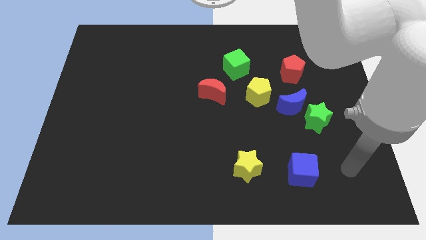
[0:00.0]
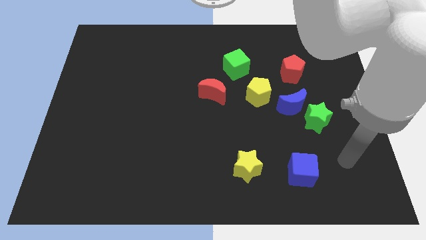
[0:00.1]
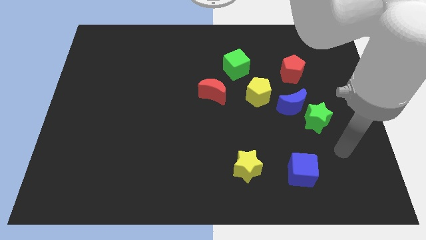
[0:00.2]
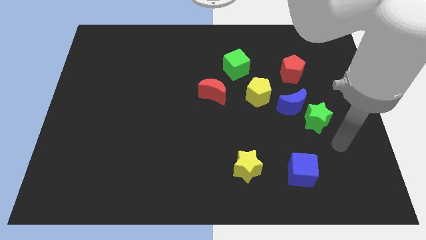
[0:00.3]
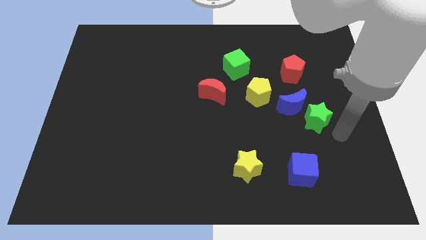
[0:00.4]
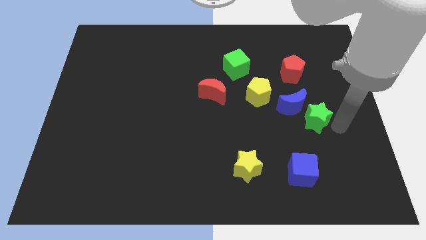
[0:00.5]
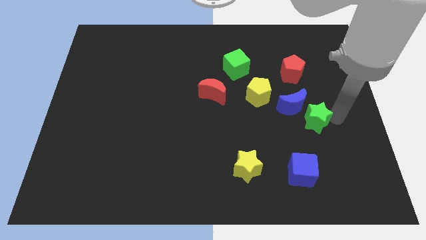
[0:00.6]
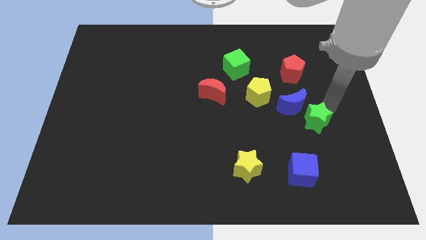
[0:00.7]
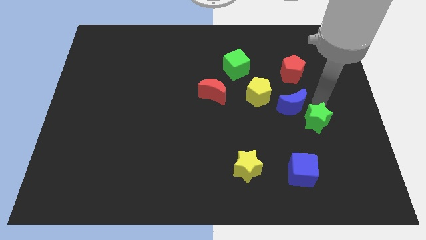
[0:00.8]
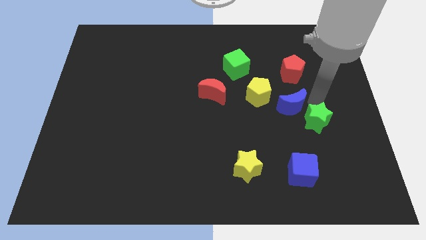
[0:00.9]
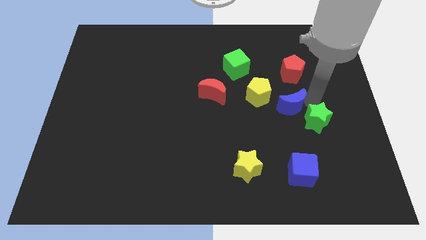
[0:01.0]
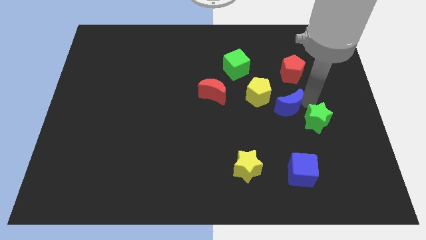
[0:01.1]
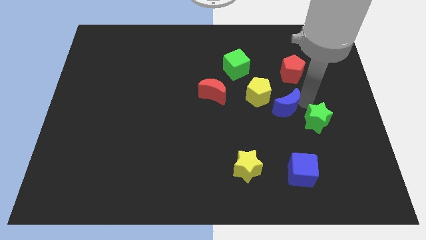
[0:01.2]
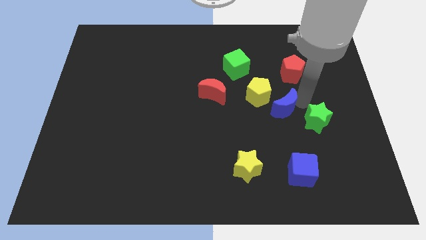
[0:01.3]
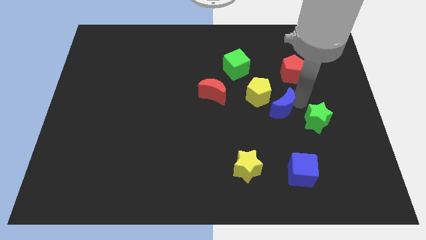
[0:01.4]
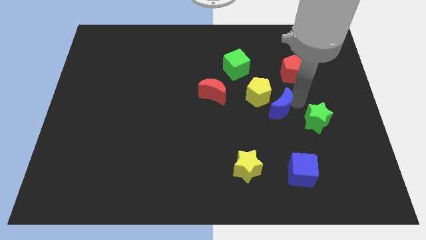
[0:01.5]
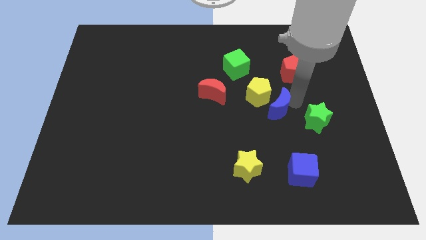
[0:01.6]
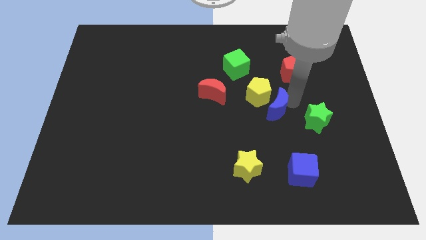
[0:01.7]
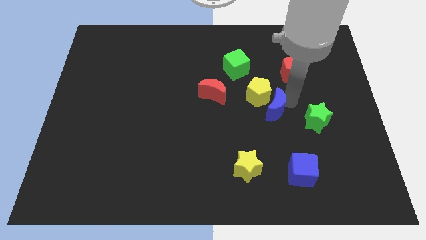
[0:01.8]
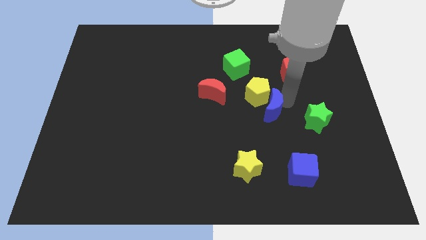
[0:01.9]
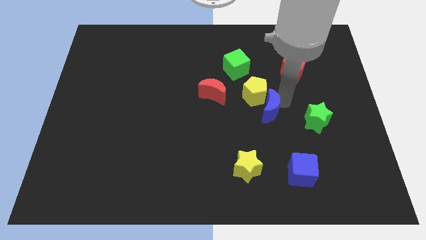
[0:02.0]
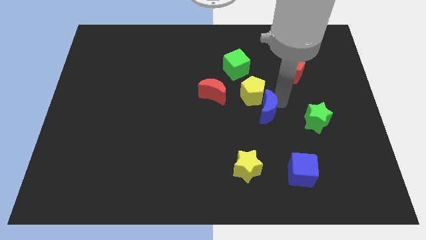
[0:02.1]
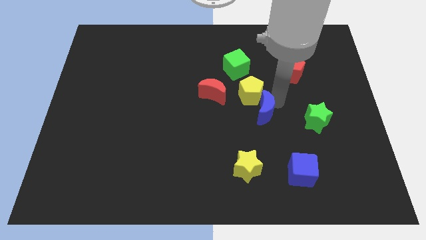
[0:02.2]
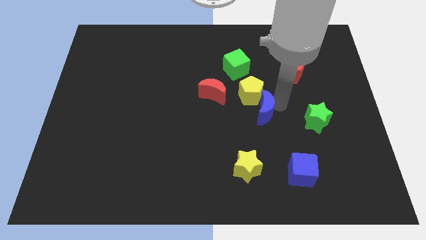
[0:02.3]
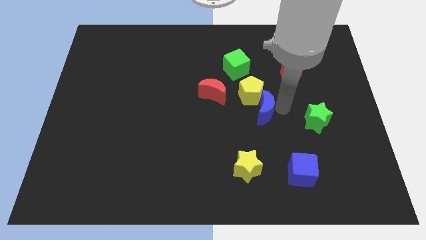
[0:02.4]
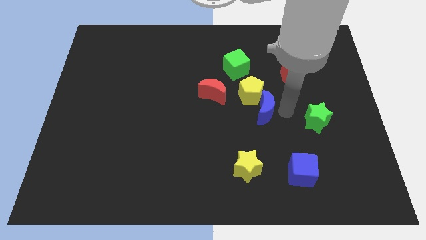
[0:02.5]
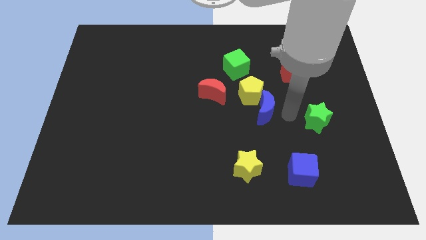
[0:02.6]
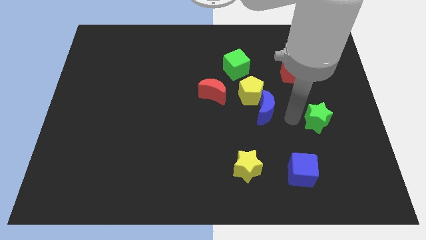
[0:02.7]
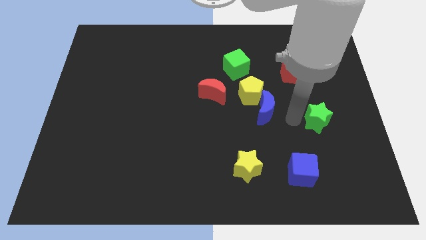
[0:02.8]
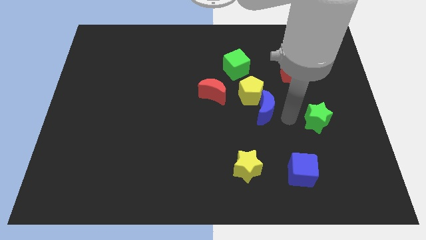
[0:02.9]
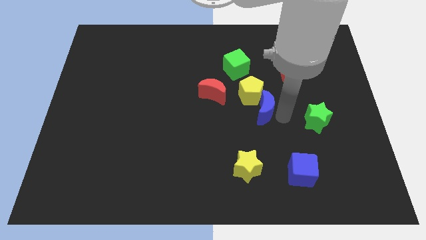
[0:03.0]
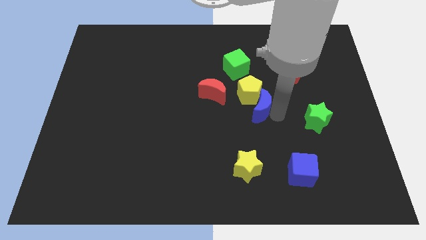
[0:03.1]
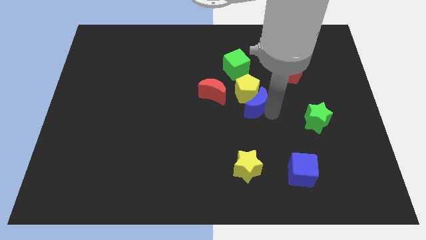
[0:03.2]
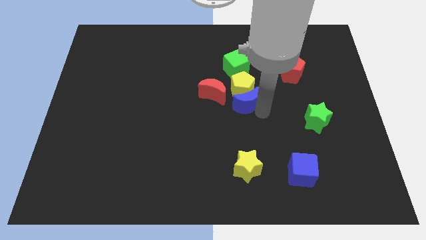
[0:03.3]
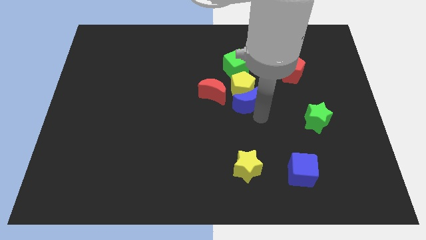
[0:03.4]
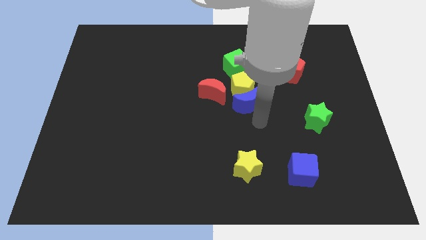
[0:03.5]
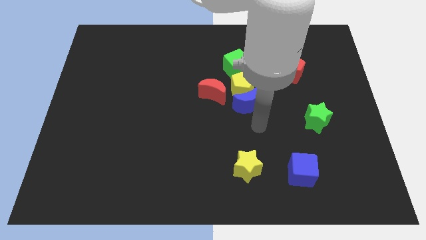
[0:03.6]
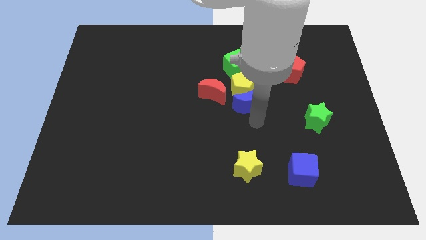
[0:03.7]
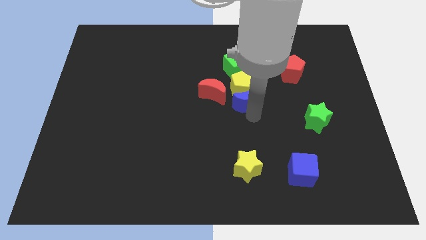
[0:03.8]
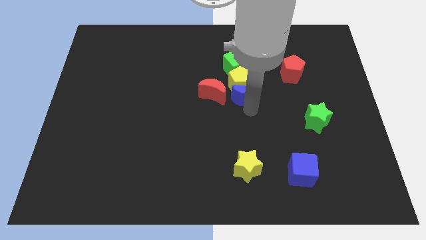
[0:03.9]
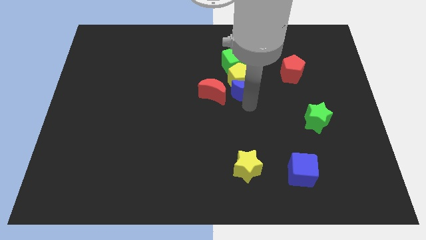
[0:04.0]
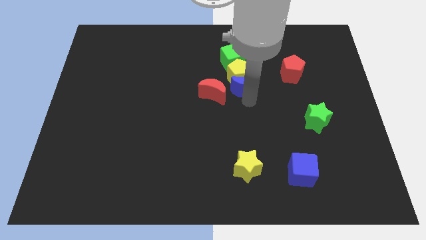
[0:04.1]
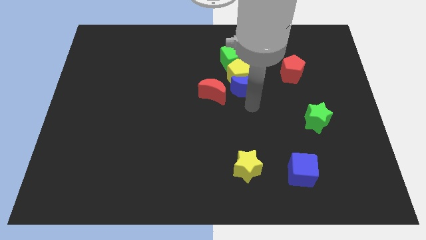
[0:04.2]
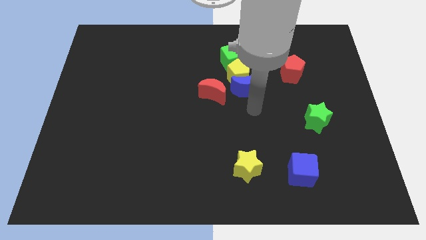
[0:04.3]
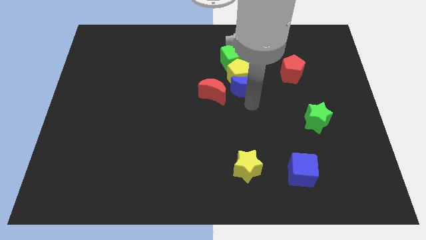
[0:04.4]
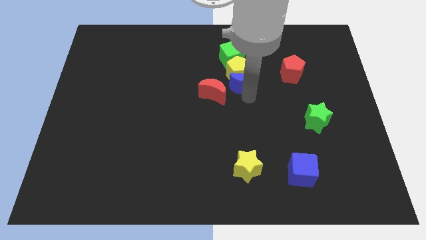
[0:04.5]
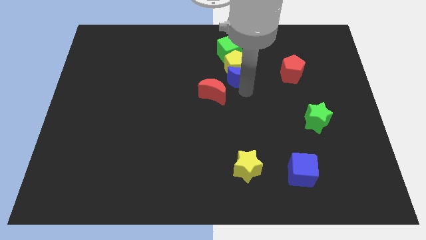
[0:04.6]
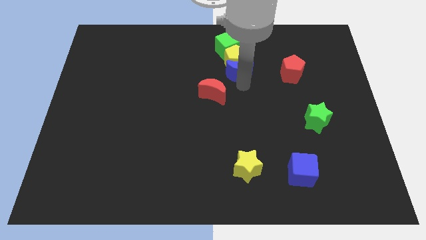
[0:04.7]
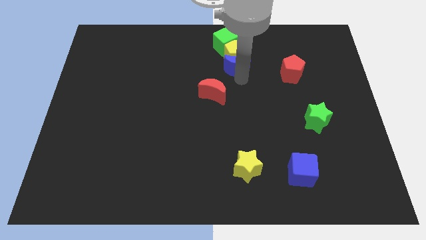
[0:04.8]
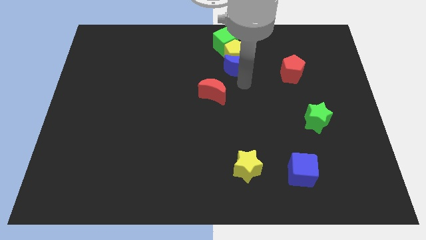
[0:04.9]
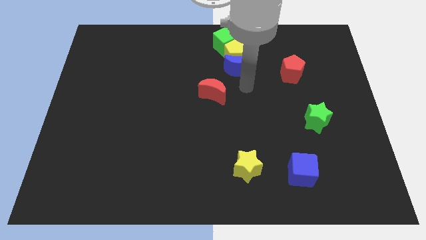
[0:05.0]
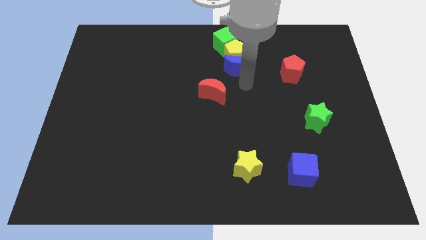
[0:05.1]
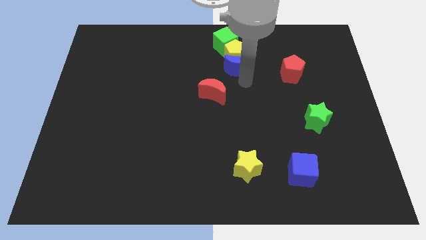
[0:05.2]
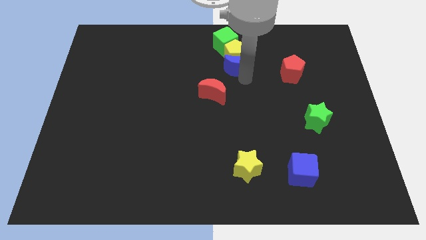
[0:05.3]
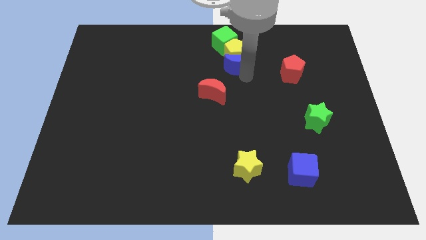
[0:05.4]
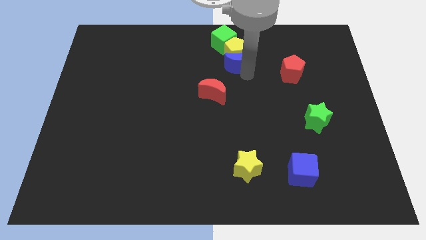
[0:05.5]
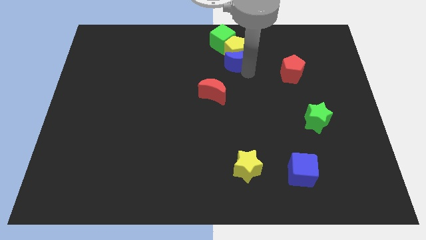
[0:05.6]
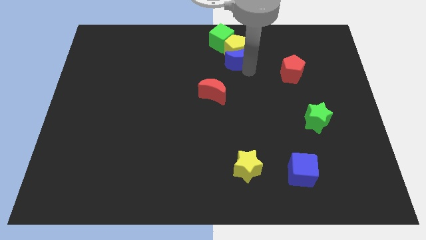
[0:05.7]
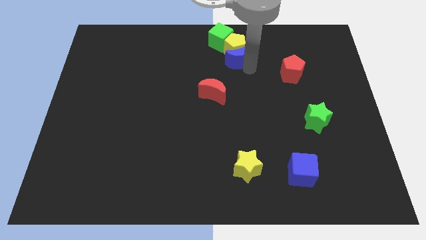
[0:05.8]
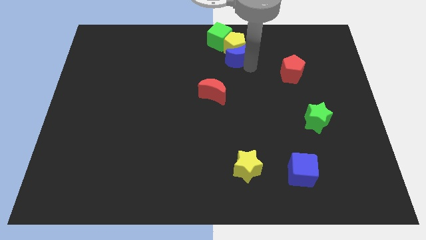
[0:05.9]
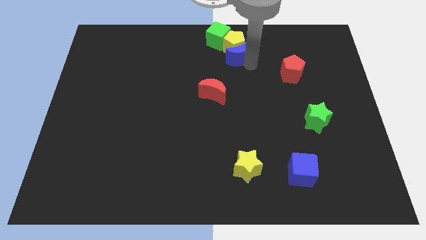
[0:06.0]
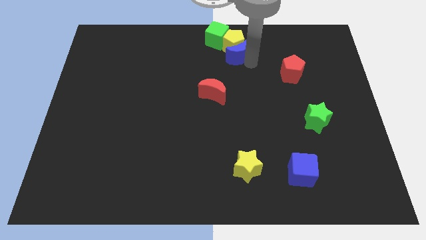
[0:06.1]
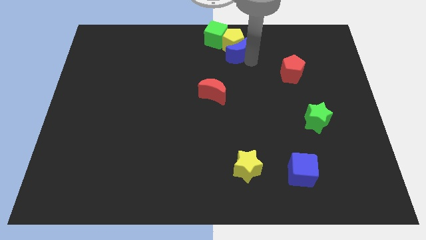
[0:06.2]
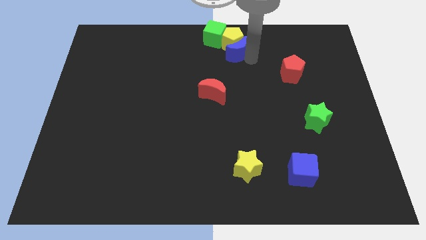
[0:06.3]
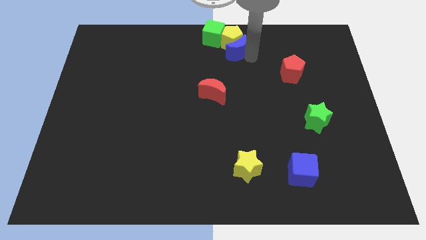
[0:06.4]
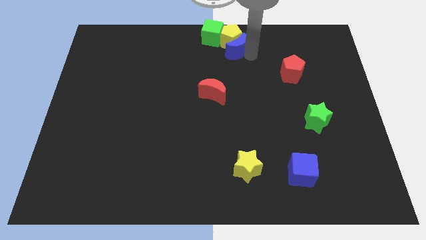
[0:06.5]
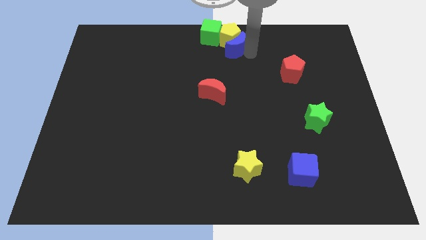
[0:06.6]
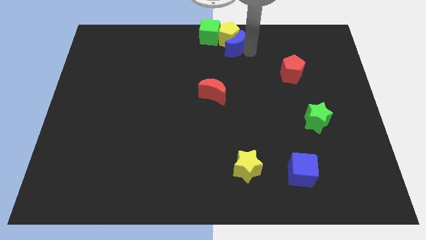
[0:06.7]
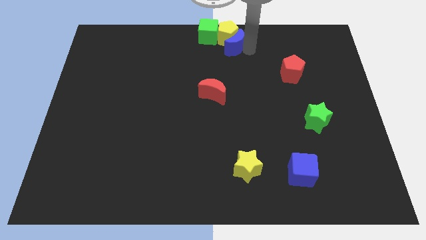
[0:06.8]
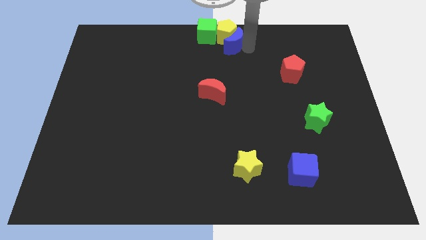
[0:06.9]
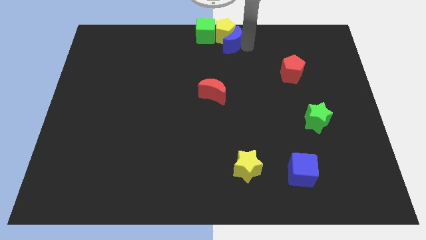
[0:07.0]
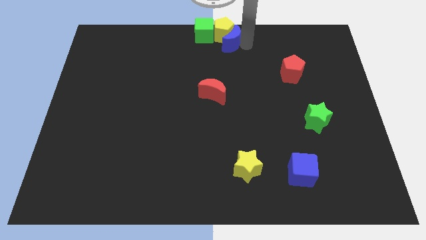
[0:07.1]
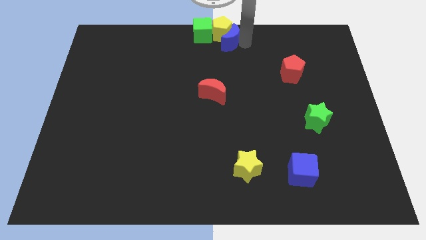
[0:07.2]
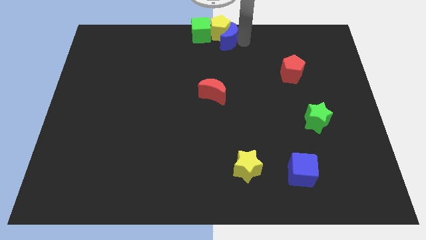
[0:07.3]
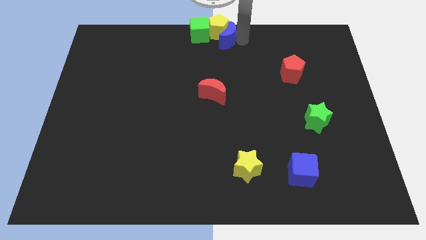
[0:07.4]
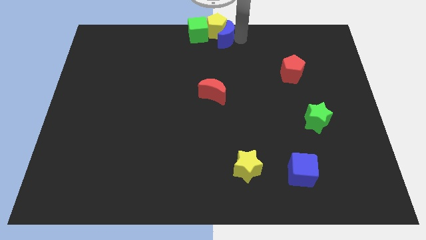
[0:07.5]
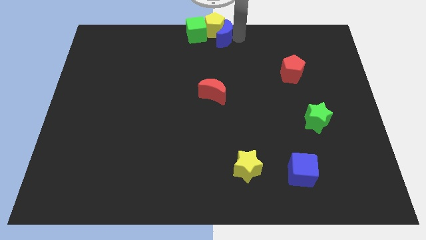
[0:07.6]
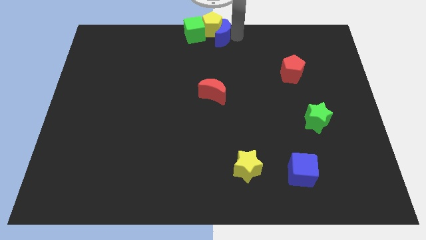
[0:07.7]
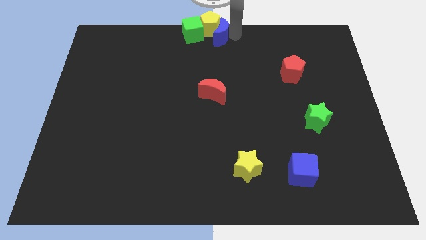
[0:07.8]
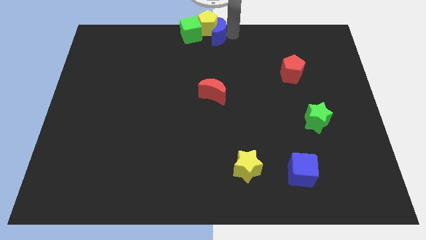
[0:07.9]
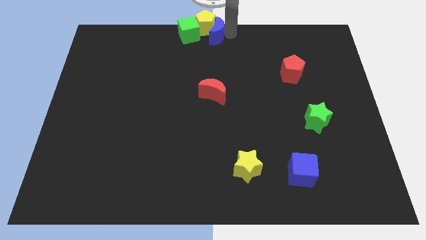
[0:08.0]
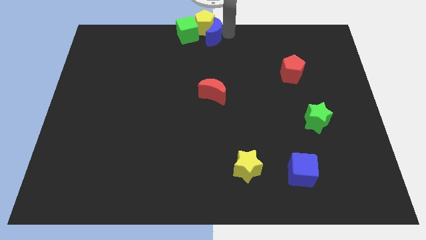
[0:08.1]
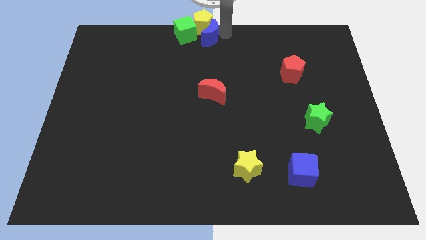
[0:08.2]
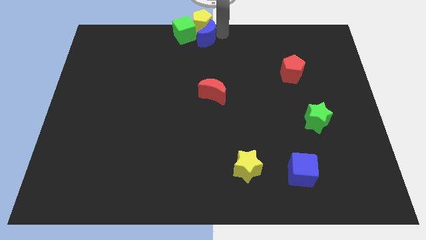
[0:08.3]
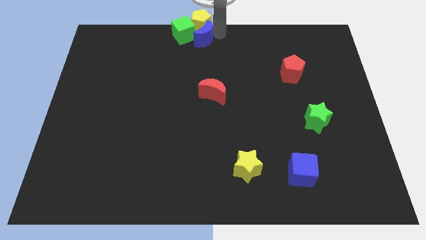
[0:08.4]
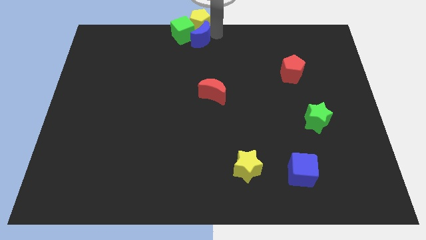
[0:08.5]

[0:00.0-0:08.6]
put the blue moon towards the green cube
